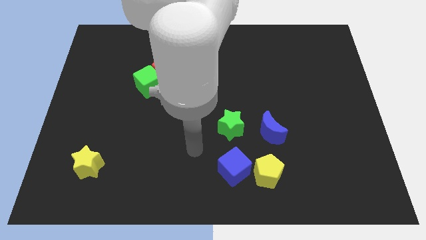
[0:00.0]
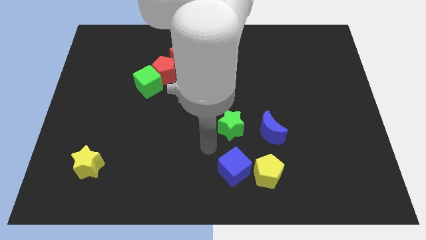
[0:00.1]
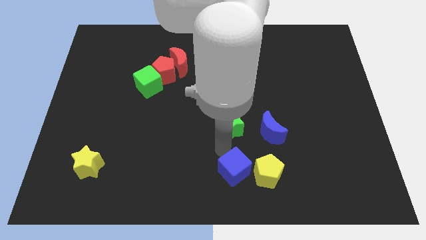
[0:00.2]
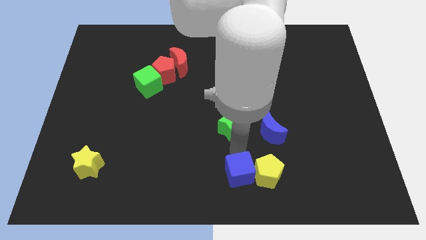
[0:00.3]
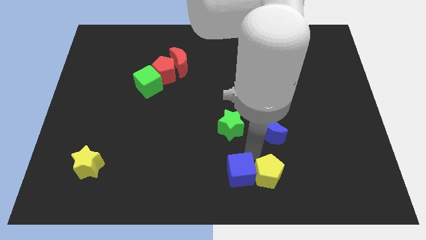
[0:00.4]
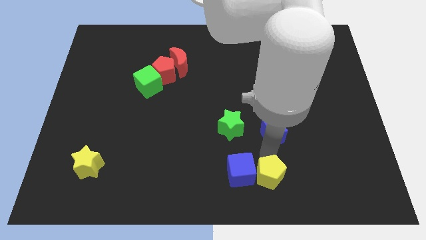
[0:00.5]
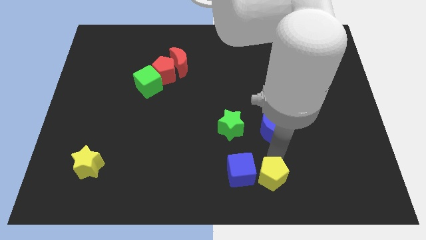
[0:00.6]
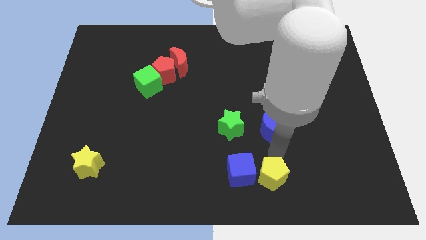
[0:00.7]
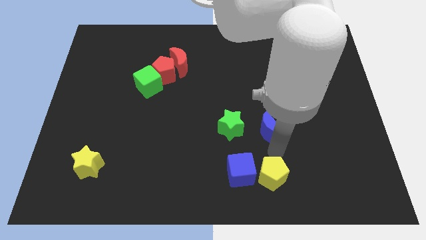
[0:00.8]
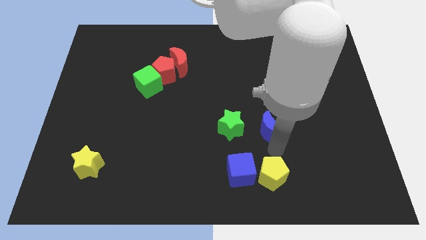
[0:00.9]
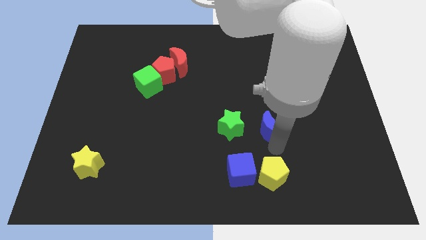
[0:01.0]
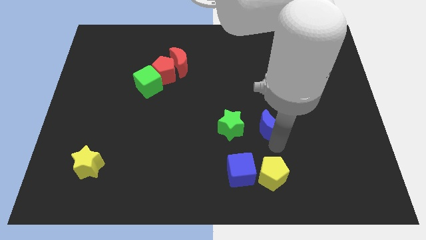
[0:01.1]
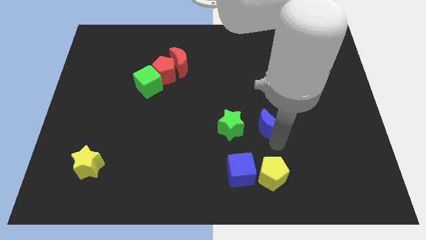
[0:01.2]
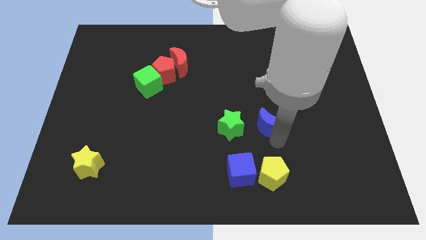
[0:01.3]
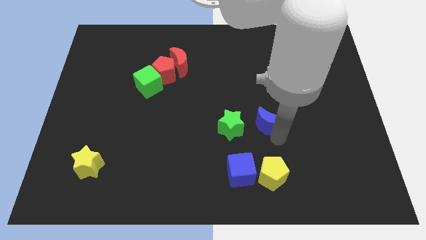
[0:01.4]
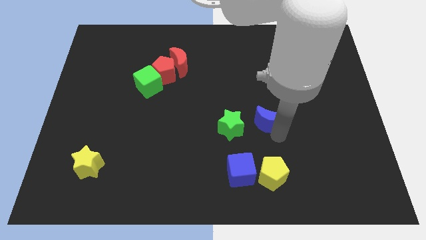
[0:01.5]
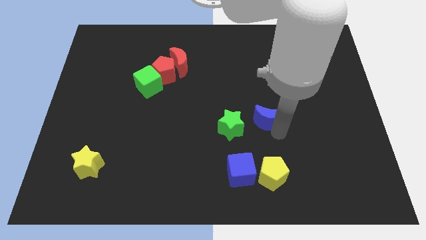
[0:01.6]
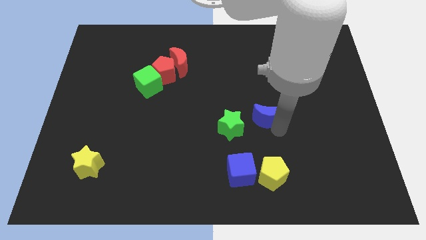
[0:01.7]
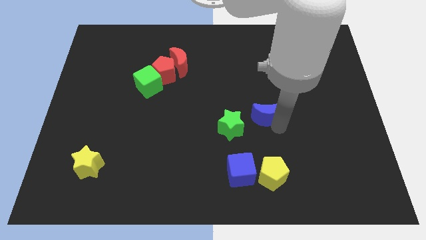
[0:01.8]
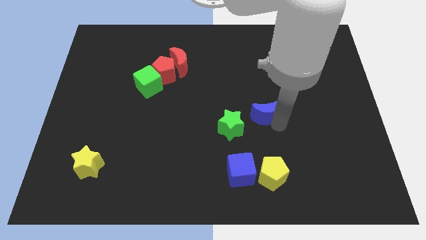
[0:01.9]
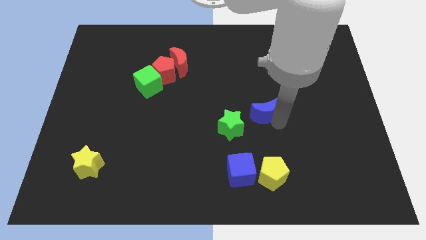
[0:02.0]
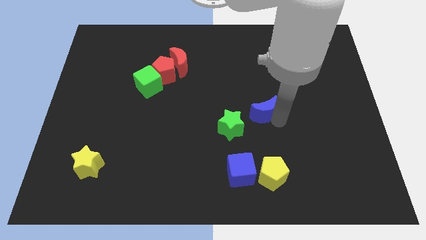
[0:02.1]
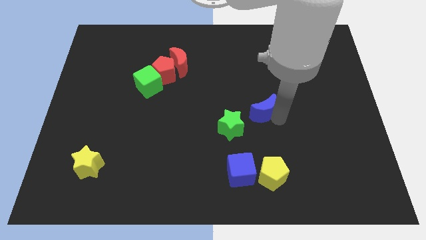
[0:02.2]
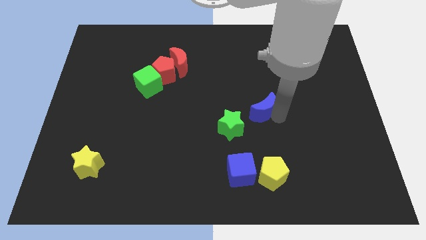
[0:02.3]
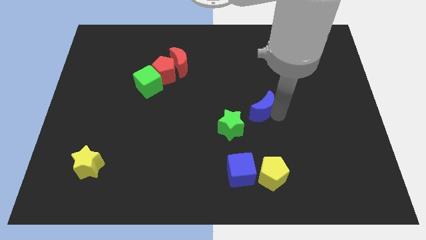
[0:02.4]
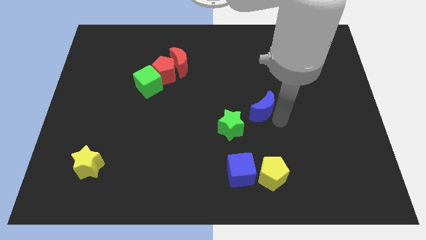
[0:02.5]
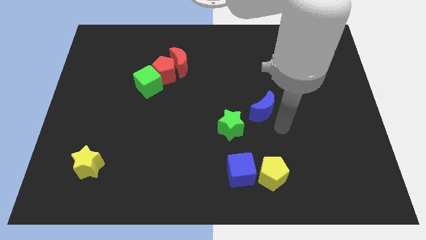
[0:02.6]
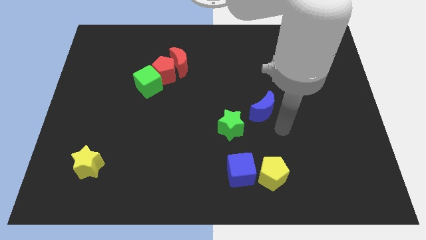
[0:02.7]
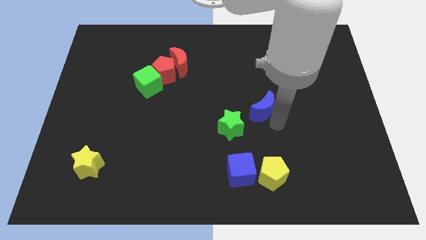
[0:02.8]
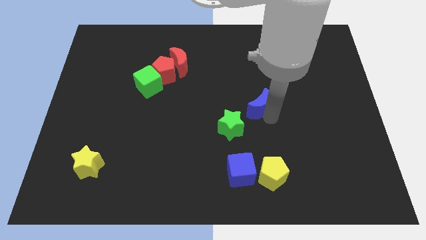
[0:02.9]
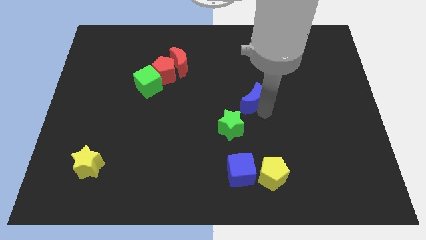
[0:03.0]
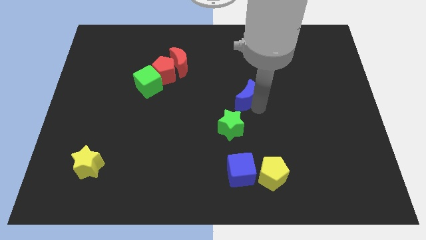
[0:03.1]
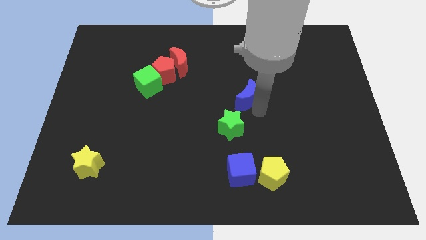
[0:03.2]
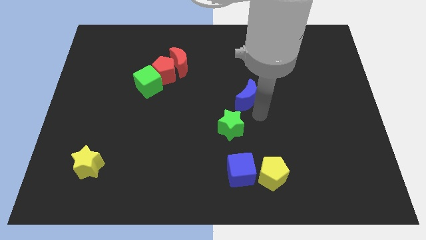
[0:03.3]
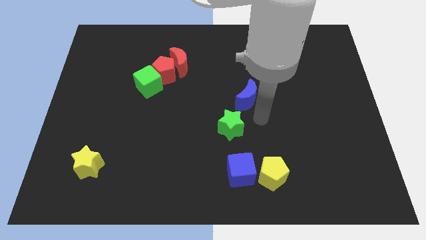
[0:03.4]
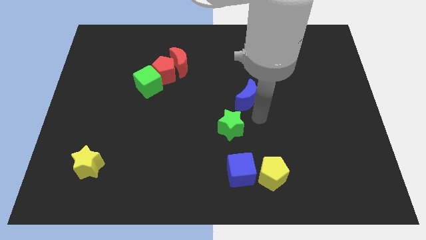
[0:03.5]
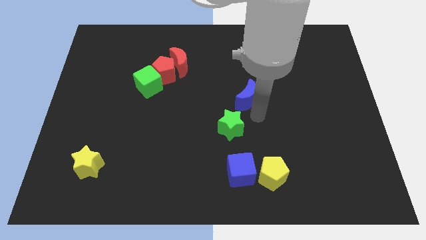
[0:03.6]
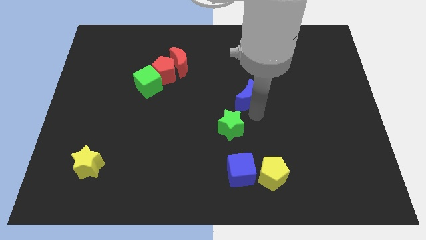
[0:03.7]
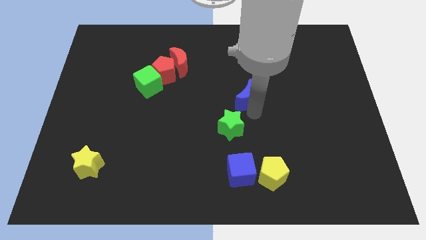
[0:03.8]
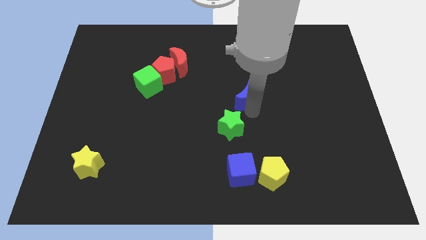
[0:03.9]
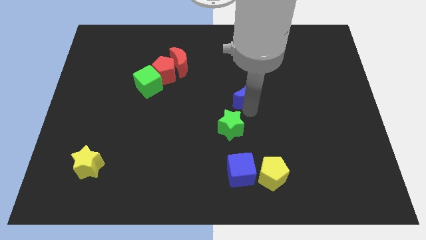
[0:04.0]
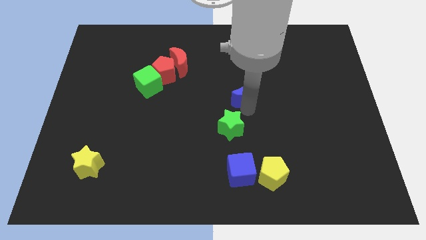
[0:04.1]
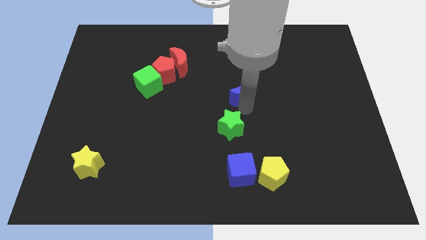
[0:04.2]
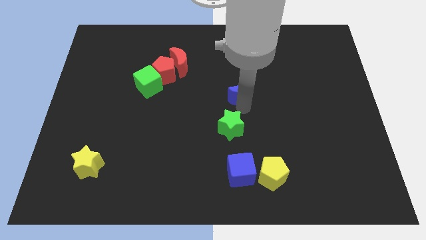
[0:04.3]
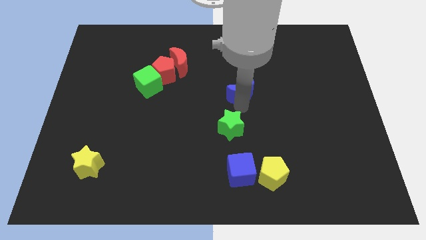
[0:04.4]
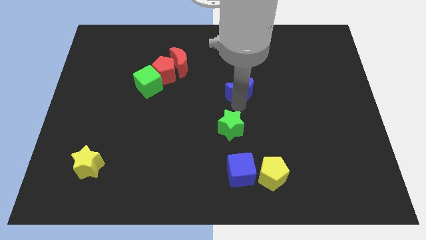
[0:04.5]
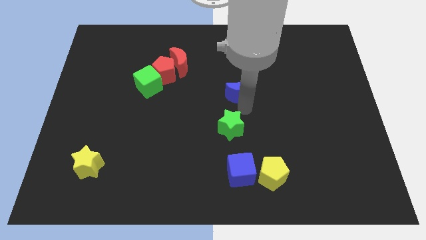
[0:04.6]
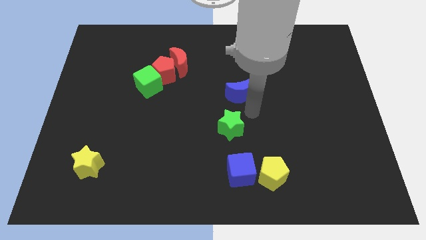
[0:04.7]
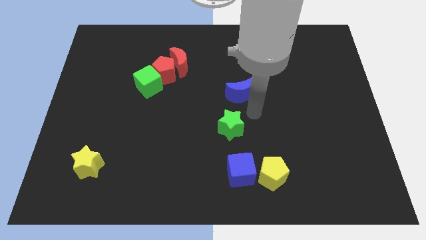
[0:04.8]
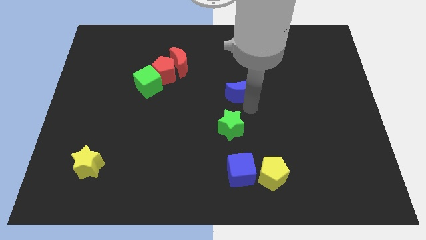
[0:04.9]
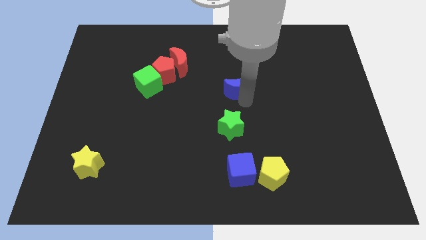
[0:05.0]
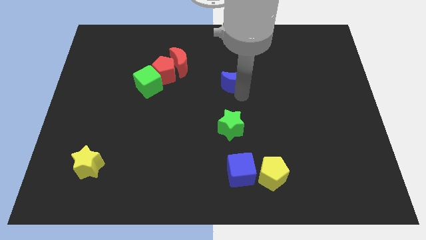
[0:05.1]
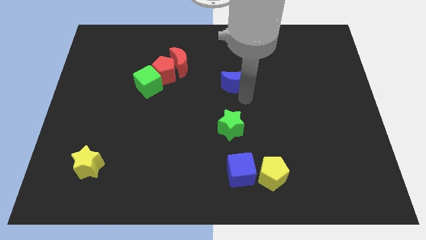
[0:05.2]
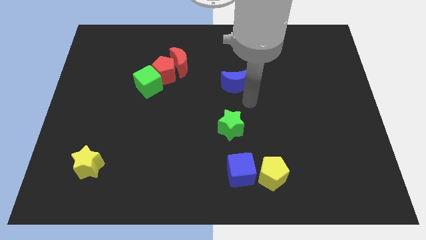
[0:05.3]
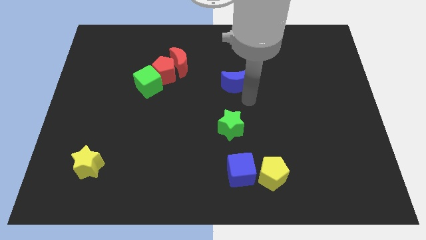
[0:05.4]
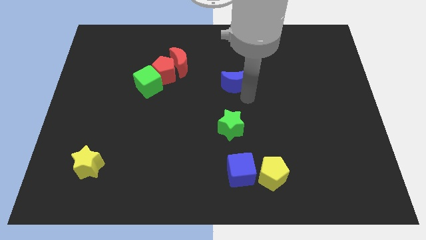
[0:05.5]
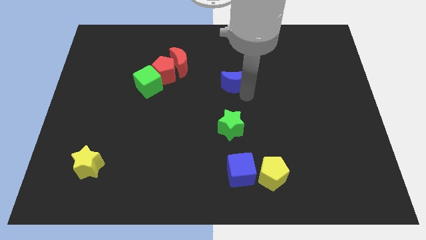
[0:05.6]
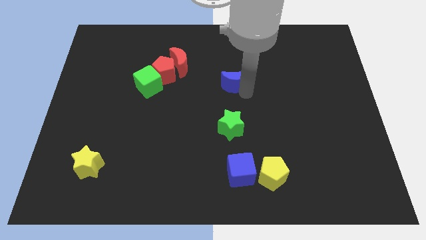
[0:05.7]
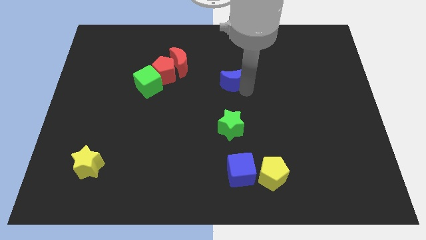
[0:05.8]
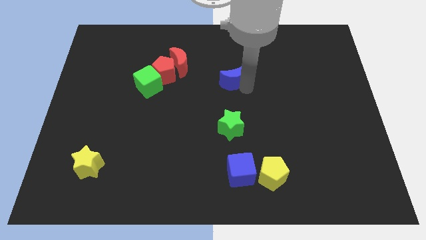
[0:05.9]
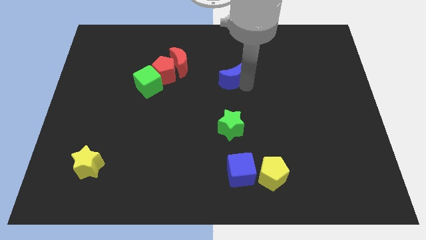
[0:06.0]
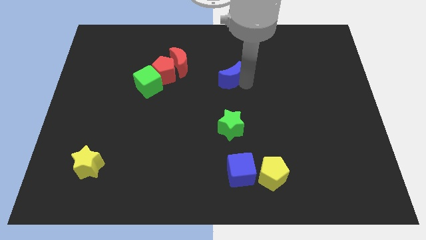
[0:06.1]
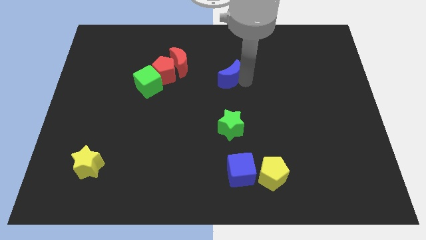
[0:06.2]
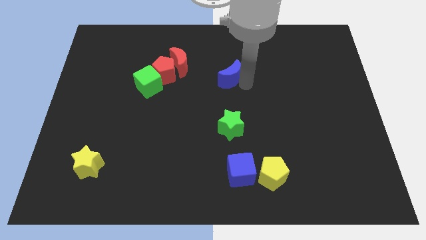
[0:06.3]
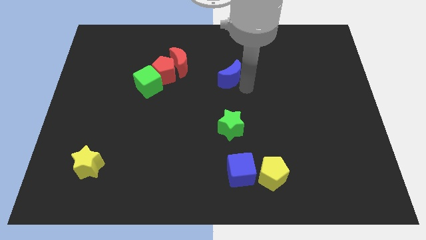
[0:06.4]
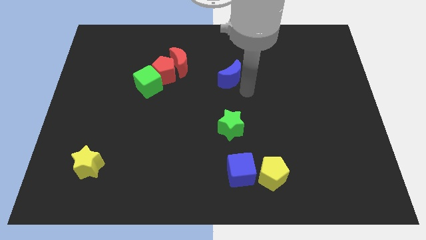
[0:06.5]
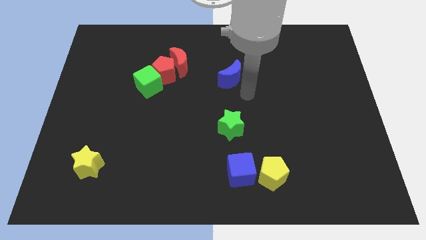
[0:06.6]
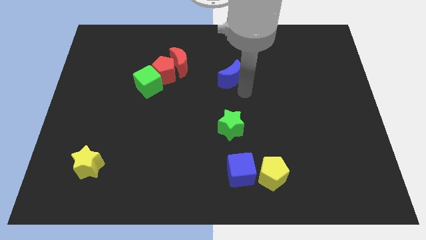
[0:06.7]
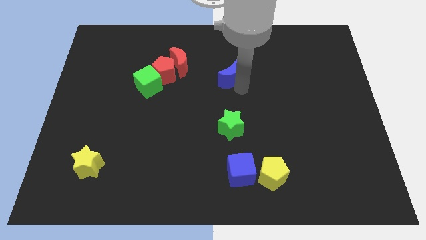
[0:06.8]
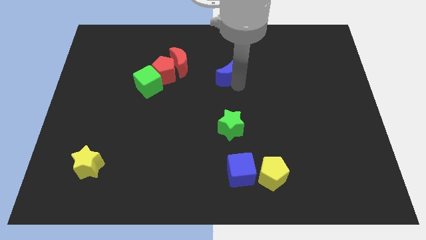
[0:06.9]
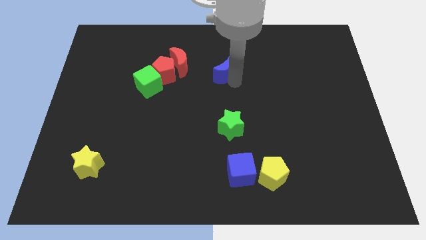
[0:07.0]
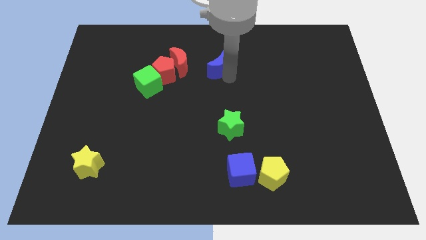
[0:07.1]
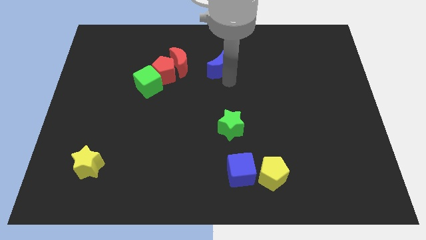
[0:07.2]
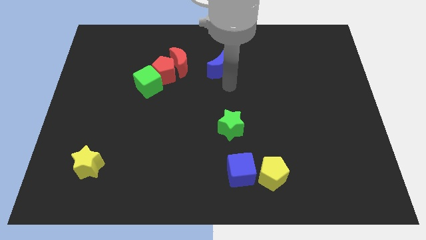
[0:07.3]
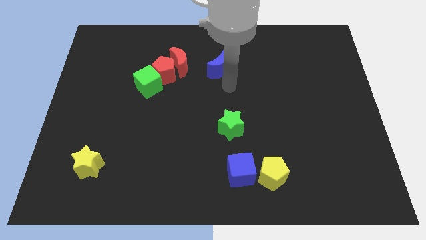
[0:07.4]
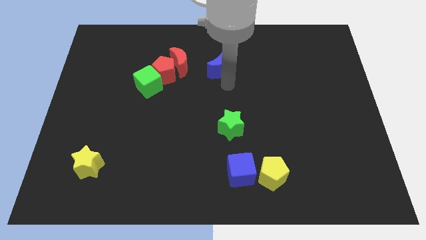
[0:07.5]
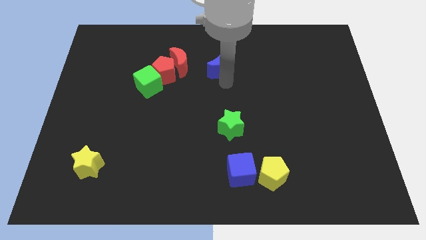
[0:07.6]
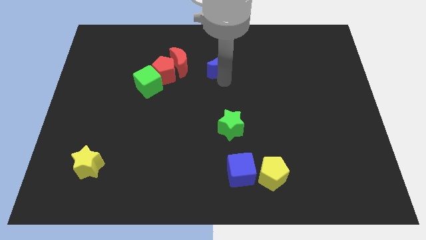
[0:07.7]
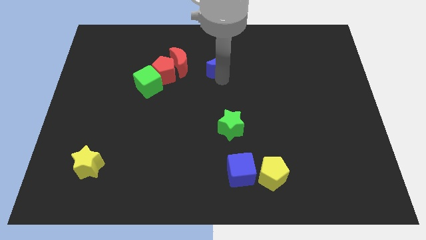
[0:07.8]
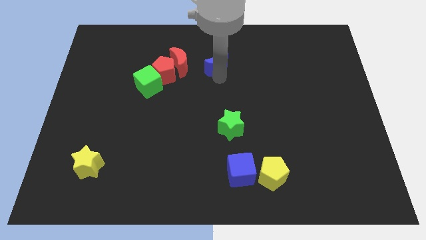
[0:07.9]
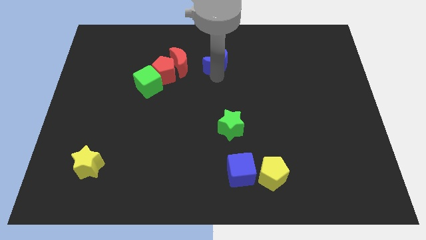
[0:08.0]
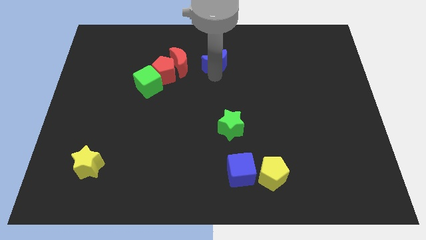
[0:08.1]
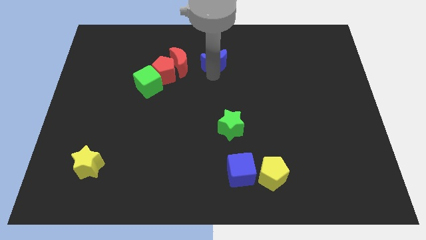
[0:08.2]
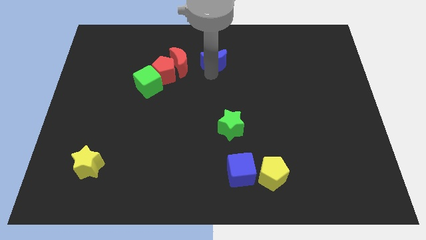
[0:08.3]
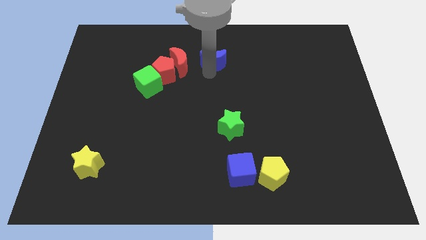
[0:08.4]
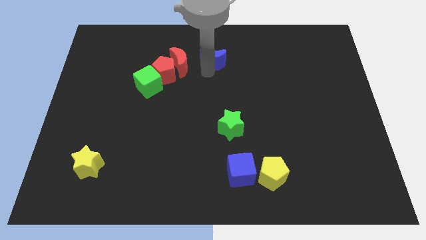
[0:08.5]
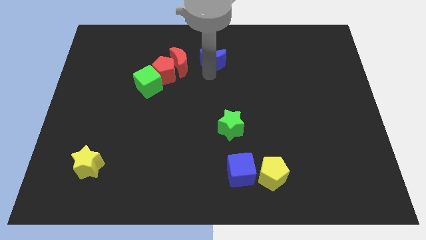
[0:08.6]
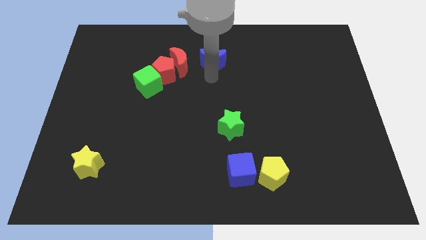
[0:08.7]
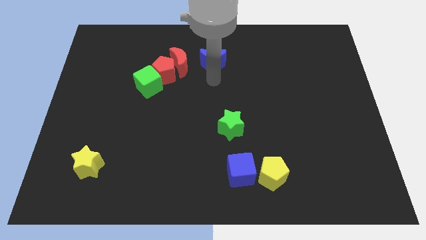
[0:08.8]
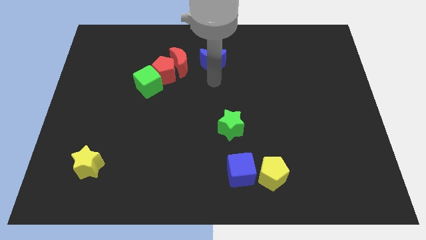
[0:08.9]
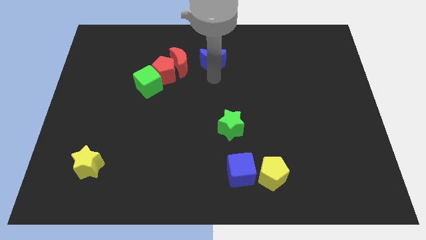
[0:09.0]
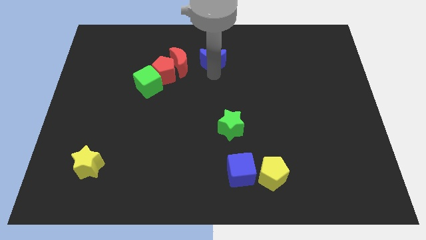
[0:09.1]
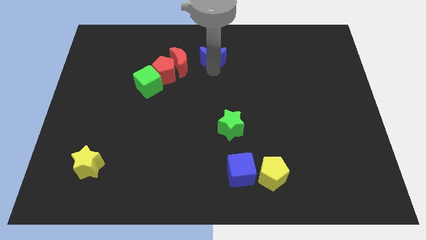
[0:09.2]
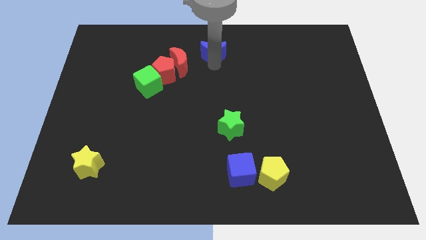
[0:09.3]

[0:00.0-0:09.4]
move the blue moon to the top
